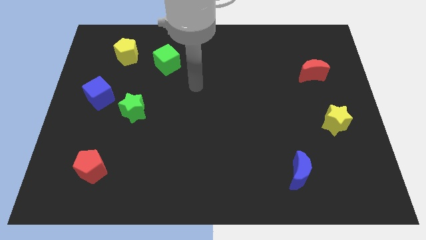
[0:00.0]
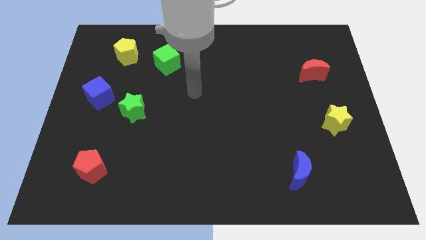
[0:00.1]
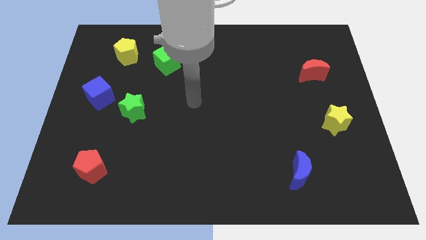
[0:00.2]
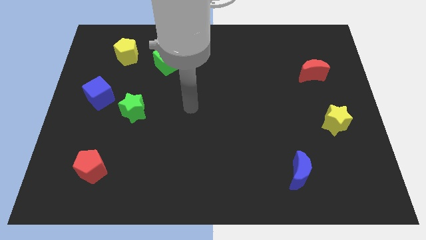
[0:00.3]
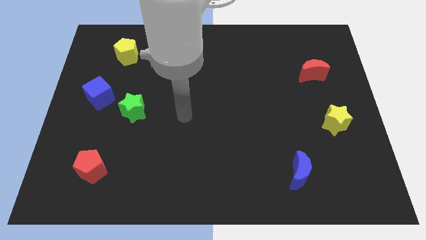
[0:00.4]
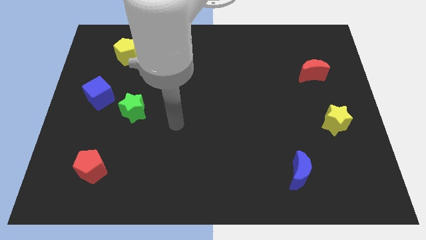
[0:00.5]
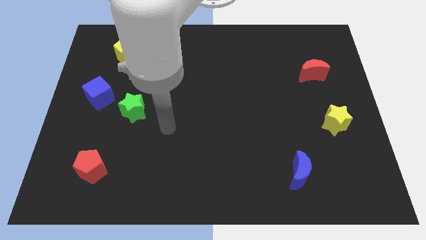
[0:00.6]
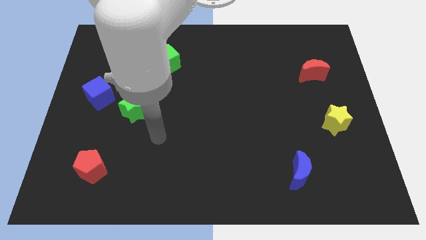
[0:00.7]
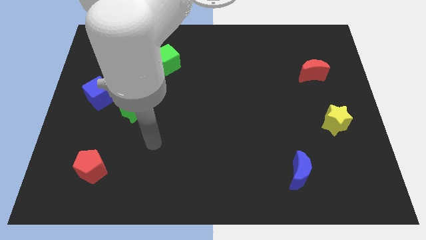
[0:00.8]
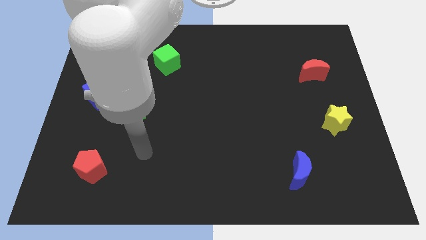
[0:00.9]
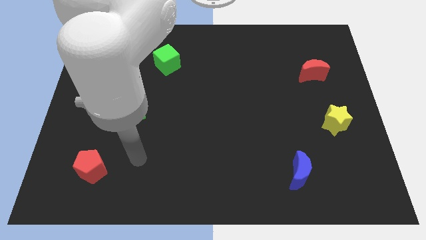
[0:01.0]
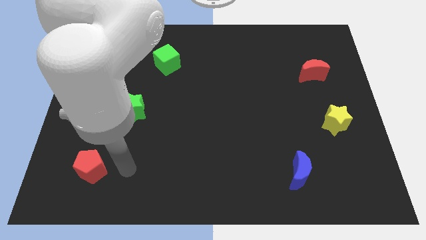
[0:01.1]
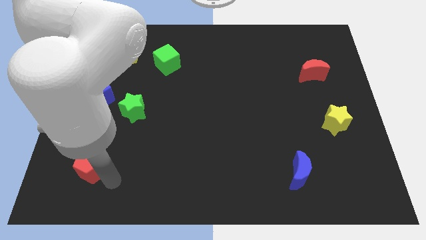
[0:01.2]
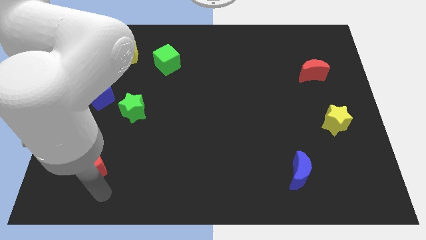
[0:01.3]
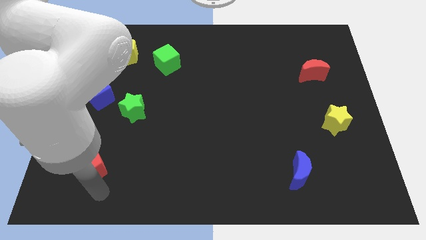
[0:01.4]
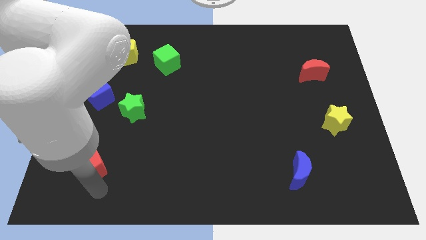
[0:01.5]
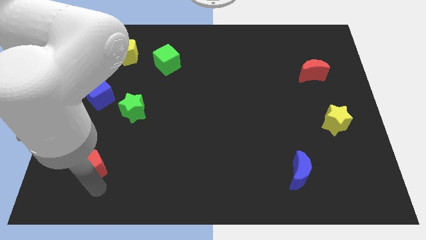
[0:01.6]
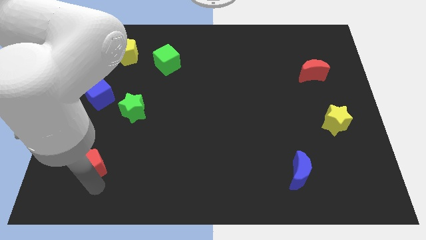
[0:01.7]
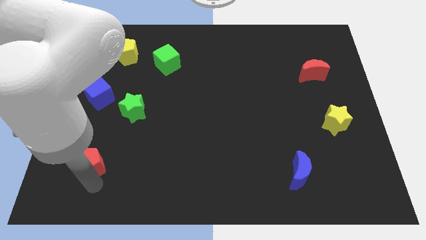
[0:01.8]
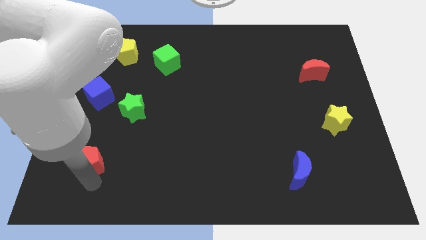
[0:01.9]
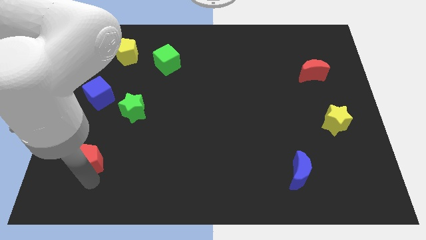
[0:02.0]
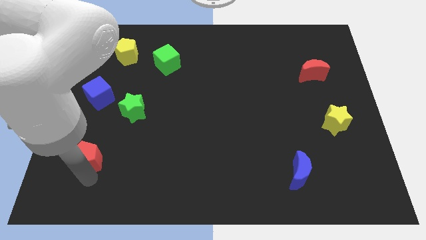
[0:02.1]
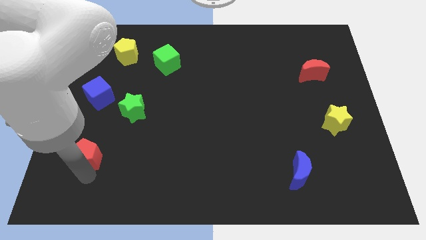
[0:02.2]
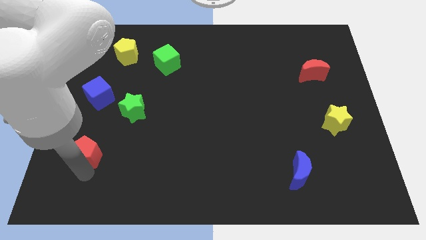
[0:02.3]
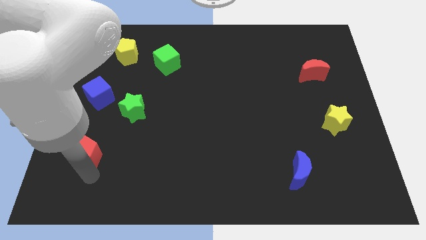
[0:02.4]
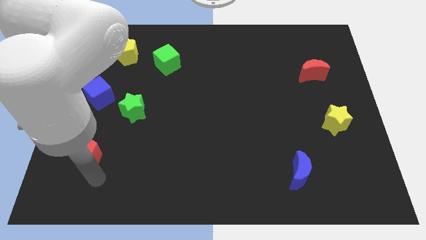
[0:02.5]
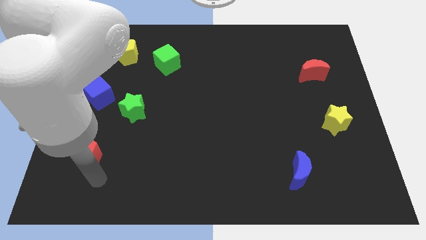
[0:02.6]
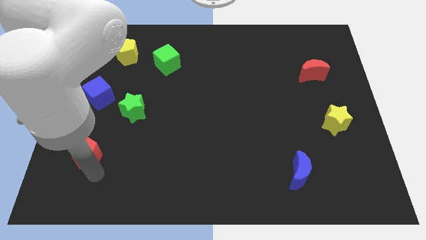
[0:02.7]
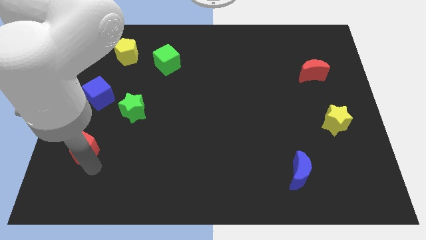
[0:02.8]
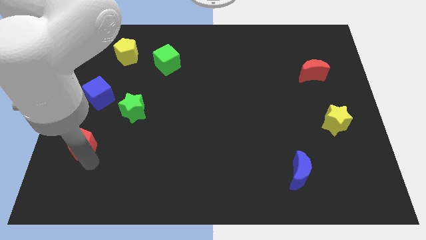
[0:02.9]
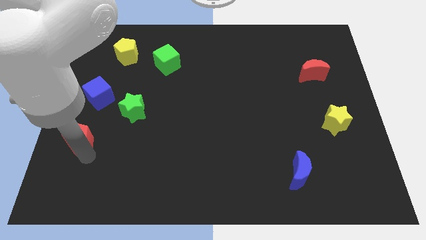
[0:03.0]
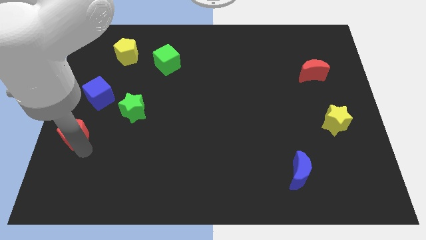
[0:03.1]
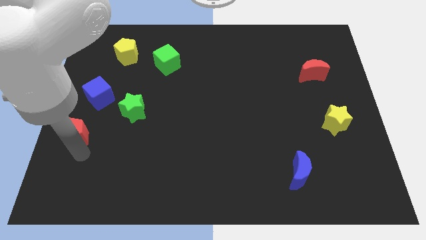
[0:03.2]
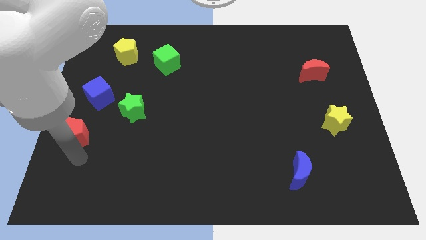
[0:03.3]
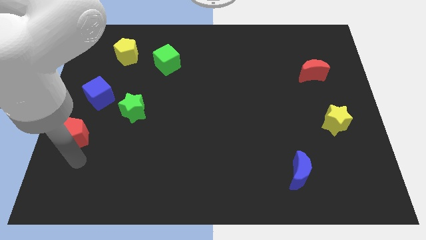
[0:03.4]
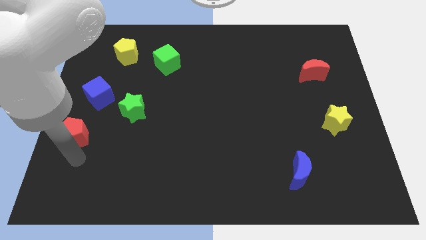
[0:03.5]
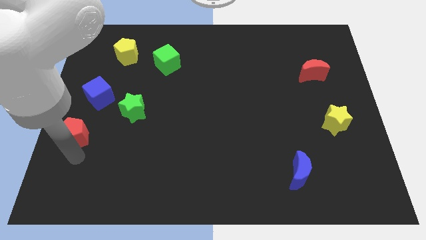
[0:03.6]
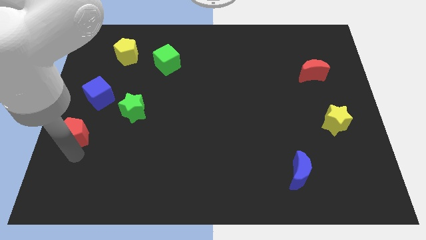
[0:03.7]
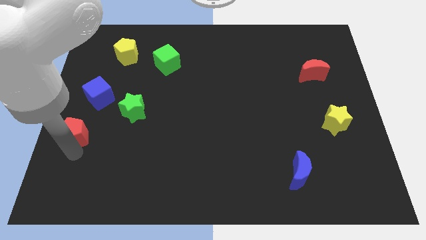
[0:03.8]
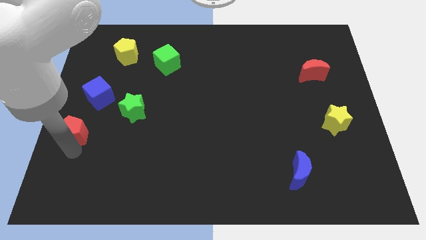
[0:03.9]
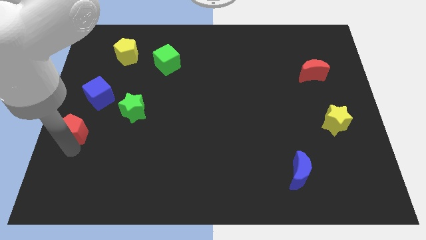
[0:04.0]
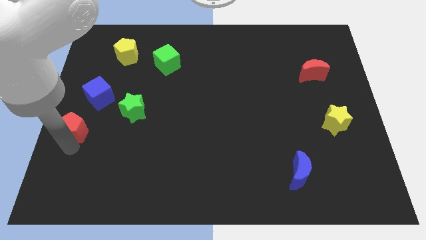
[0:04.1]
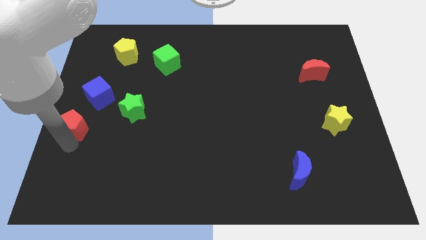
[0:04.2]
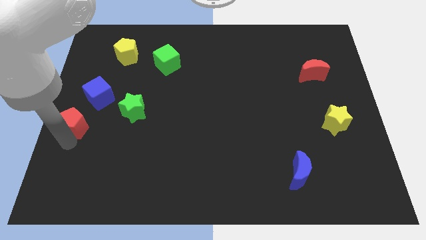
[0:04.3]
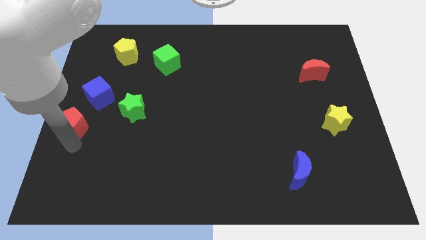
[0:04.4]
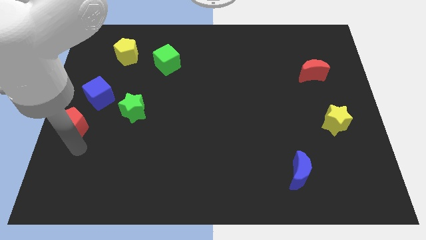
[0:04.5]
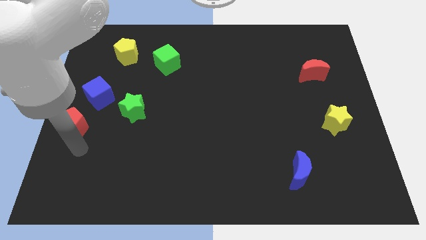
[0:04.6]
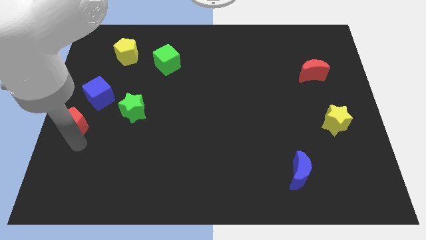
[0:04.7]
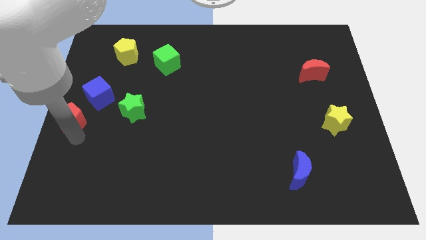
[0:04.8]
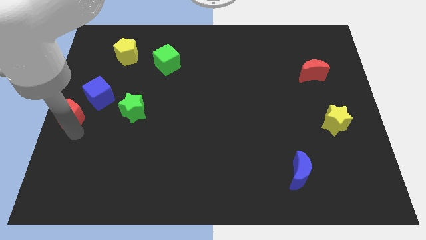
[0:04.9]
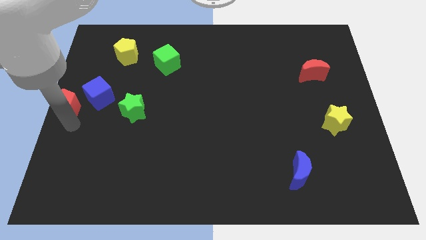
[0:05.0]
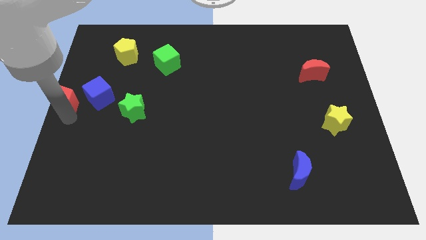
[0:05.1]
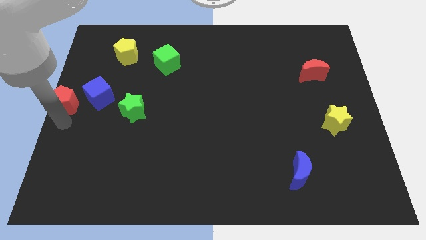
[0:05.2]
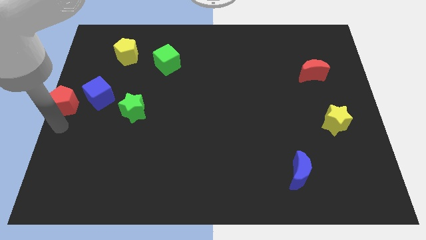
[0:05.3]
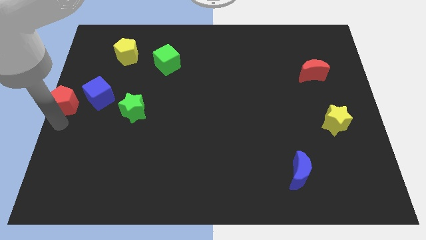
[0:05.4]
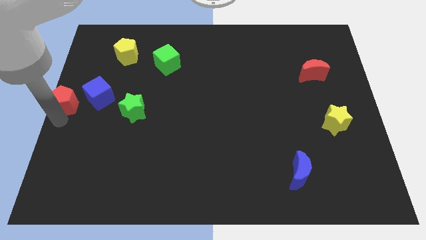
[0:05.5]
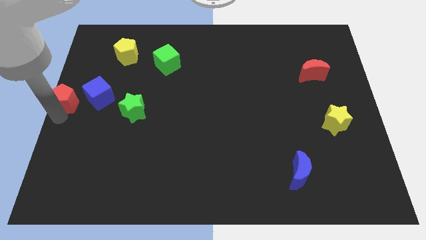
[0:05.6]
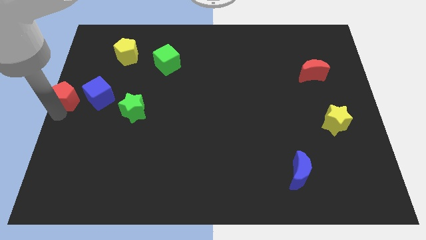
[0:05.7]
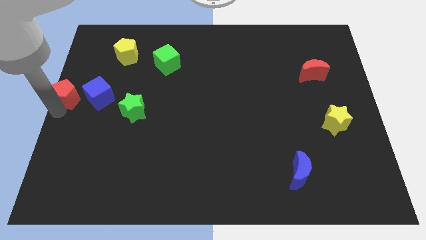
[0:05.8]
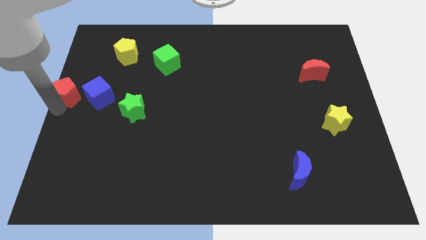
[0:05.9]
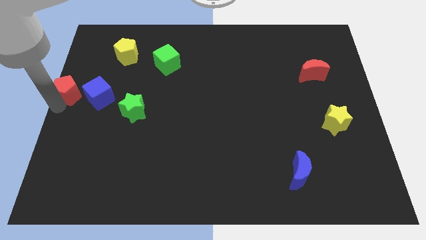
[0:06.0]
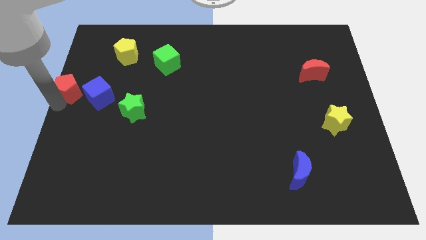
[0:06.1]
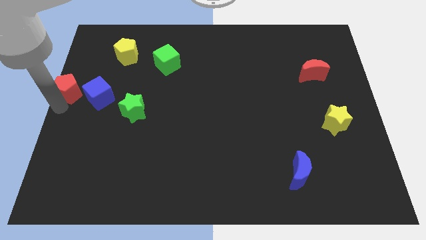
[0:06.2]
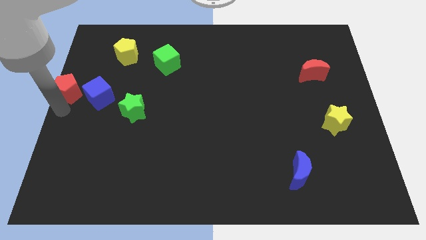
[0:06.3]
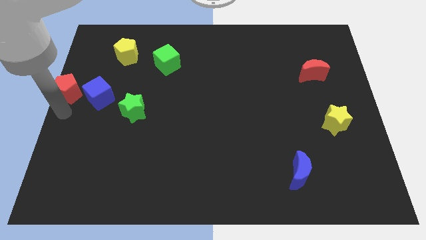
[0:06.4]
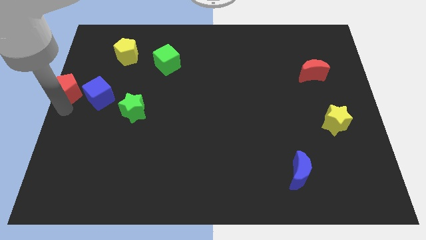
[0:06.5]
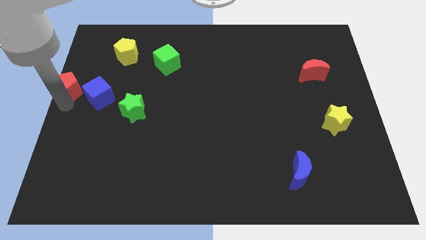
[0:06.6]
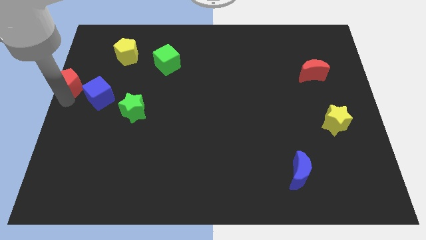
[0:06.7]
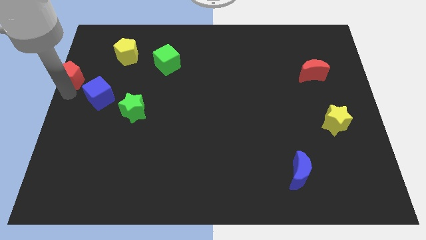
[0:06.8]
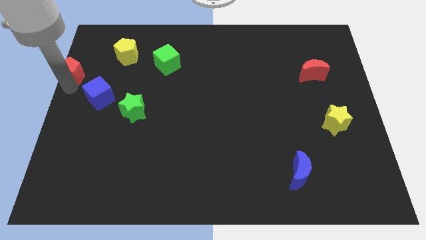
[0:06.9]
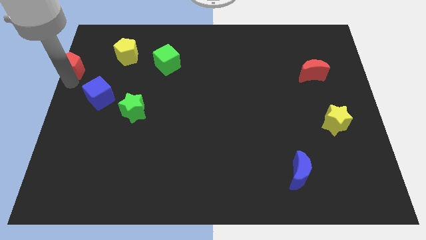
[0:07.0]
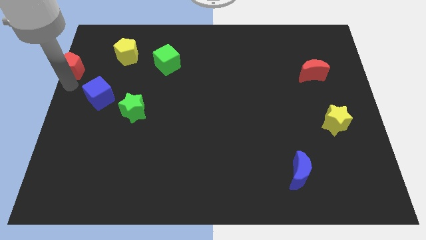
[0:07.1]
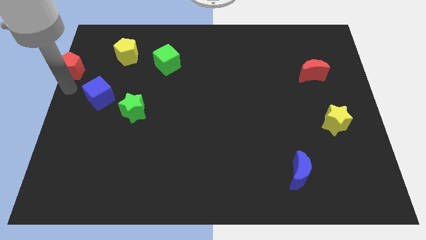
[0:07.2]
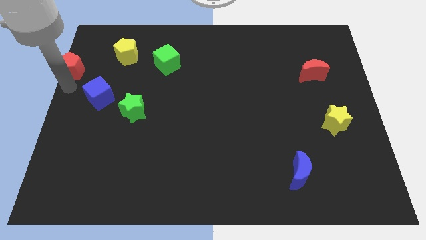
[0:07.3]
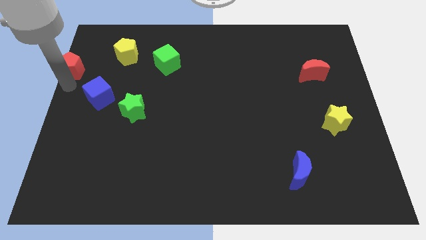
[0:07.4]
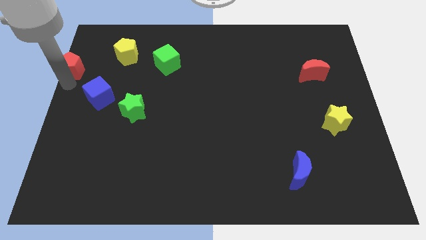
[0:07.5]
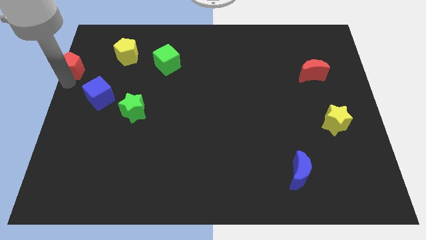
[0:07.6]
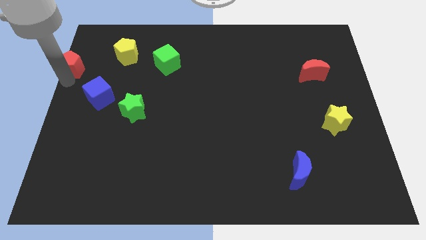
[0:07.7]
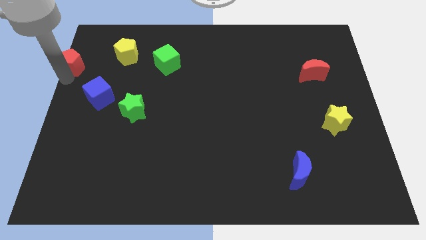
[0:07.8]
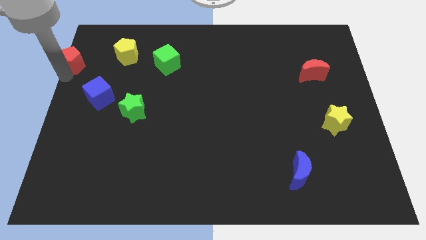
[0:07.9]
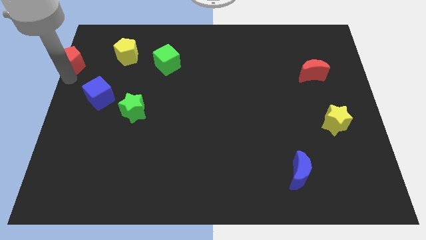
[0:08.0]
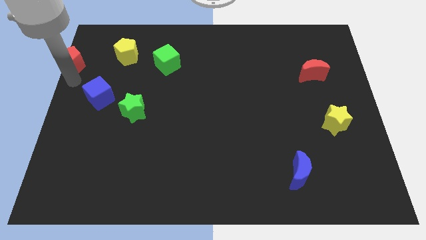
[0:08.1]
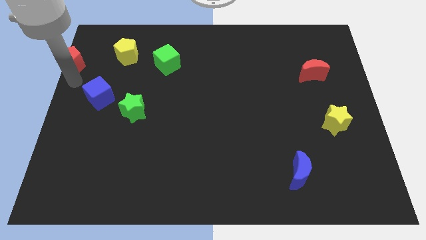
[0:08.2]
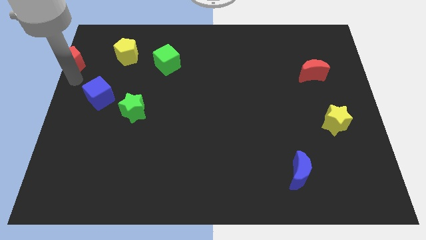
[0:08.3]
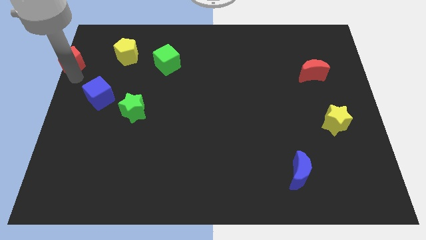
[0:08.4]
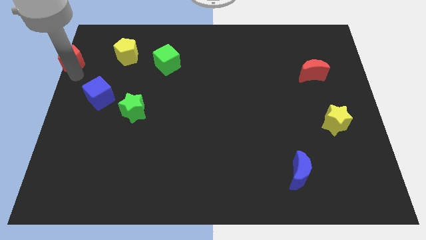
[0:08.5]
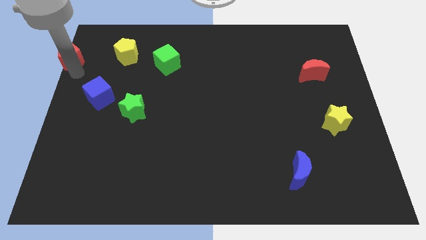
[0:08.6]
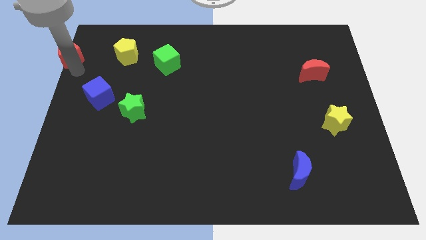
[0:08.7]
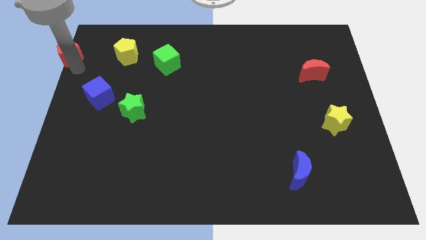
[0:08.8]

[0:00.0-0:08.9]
slide the red pentagon to the top left corner
